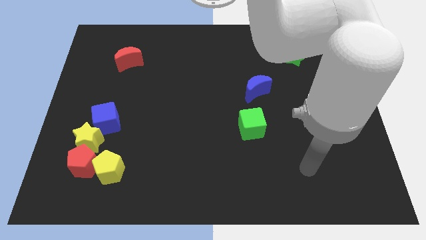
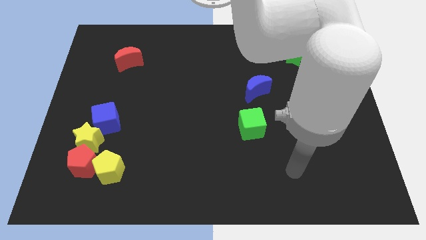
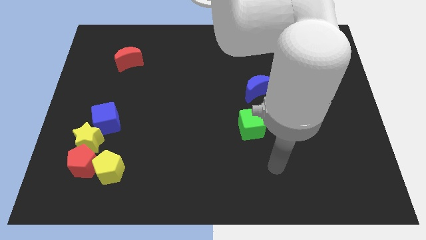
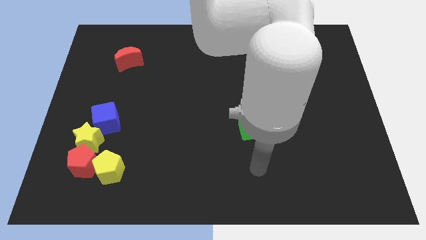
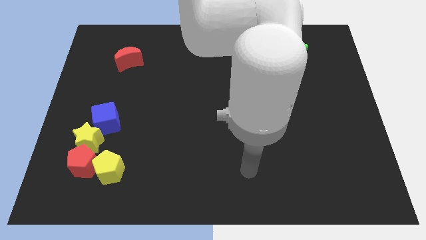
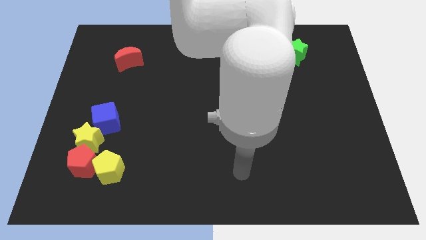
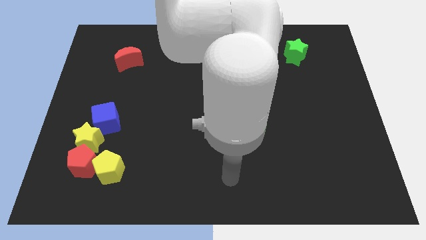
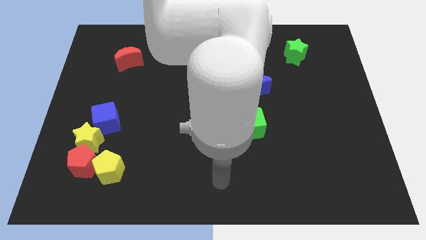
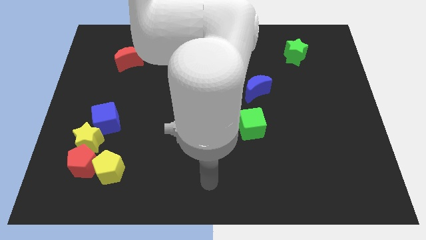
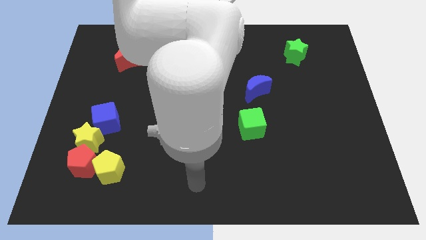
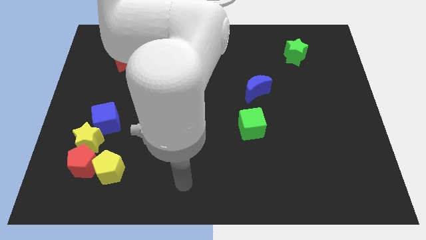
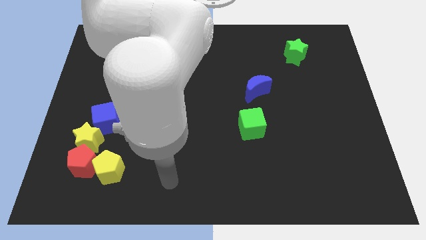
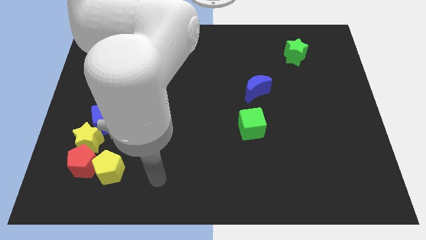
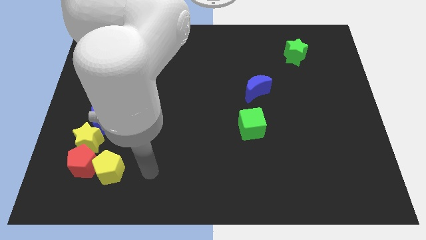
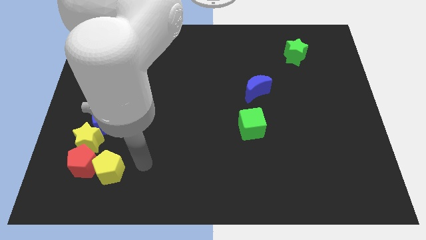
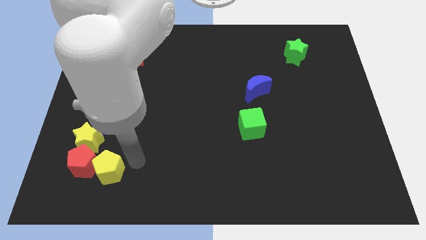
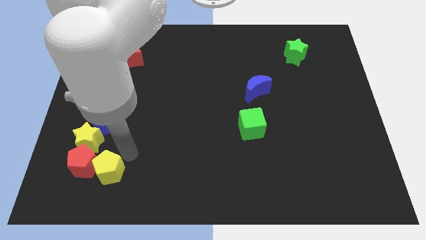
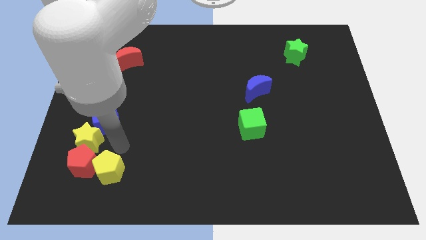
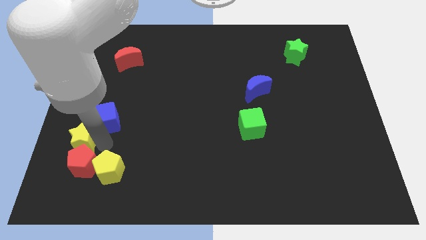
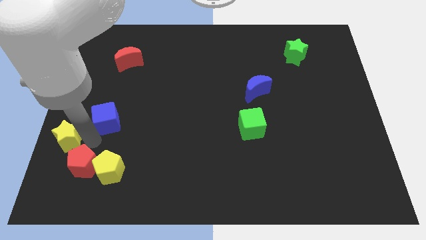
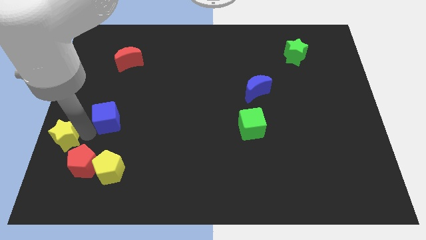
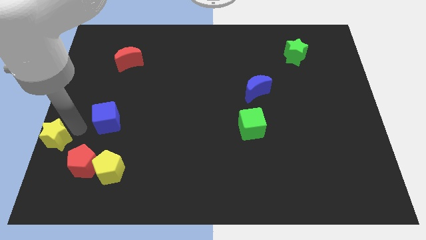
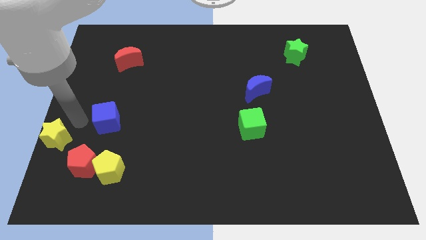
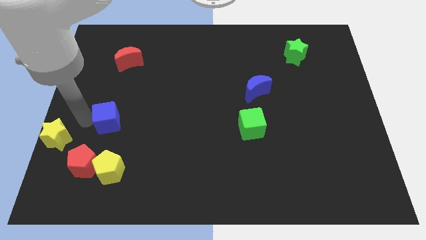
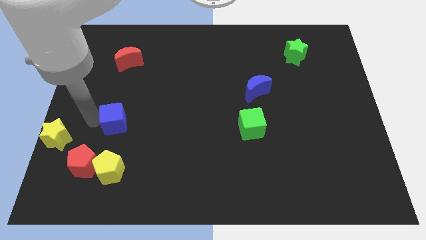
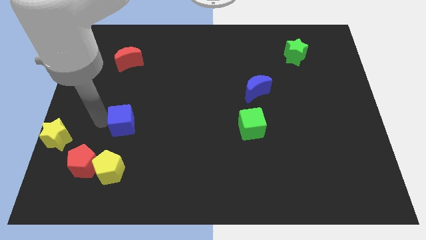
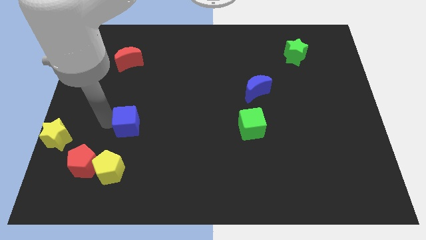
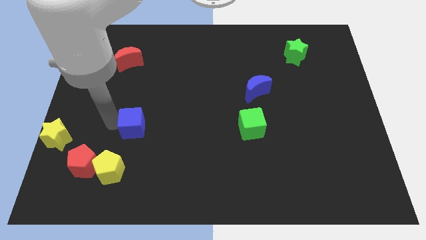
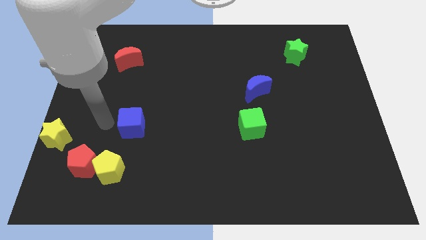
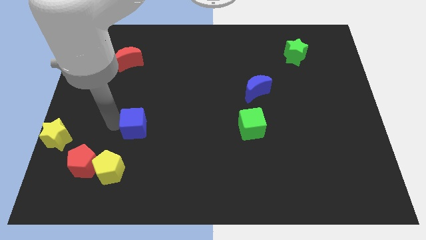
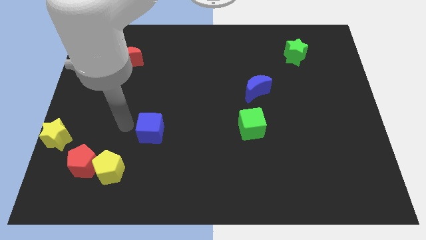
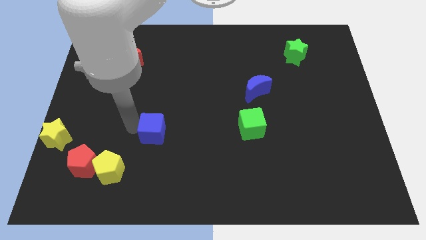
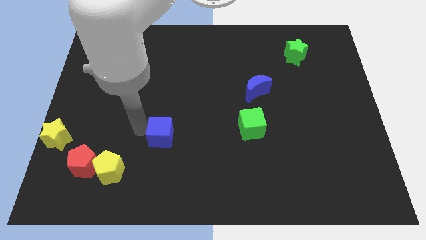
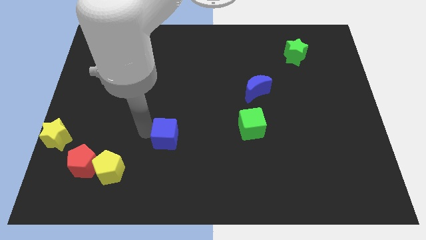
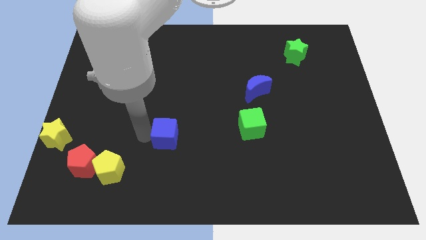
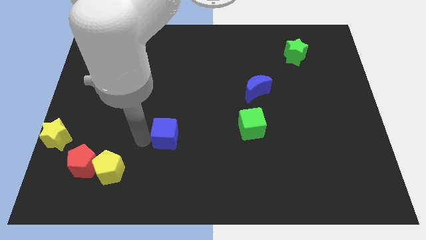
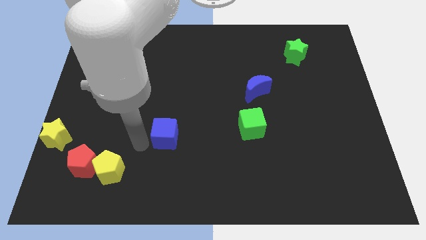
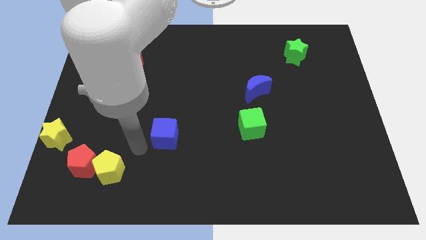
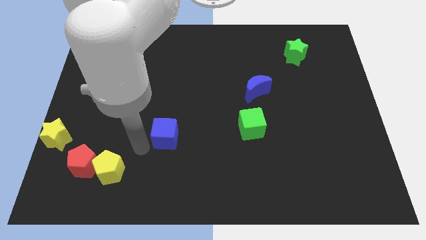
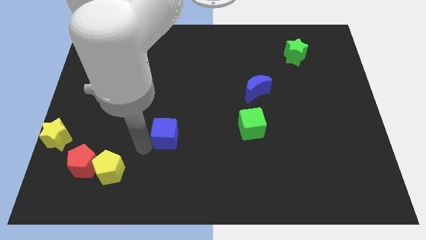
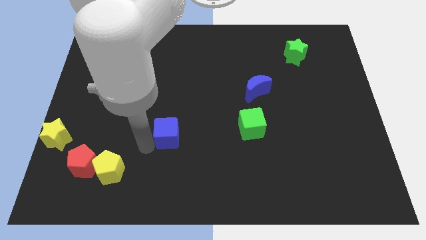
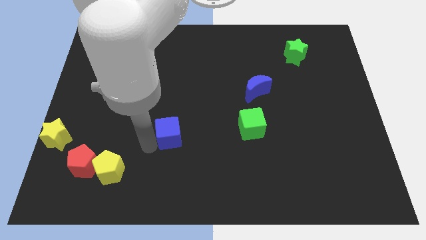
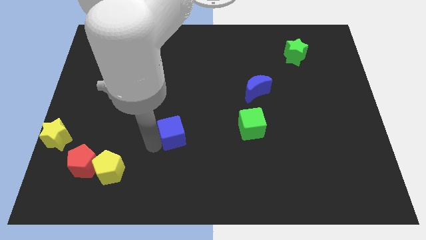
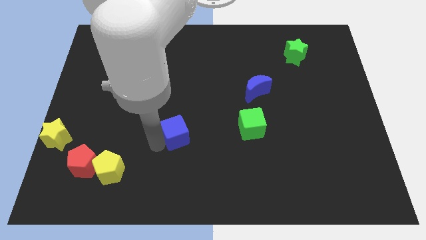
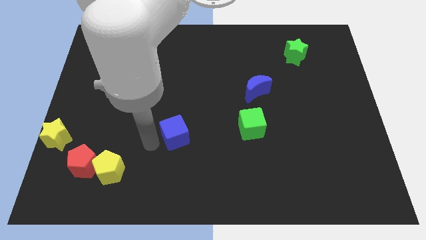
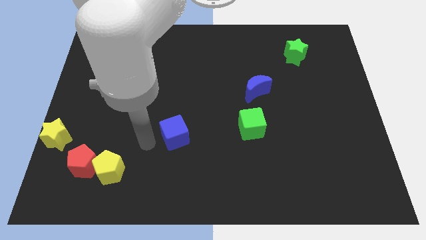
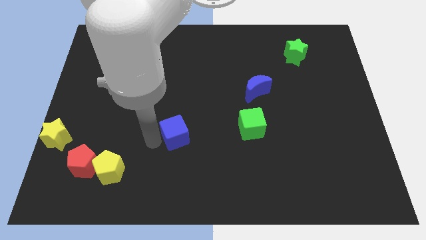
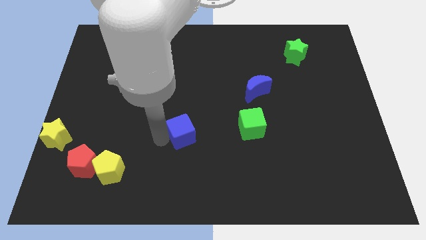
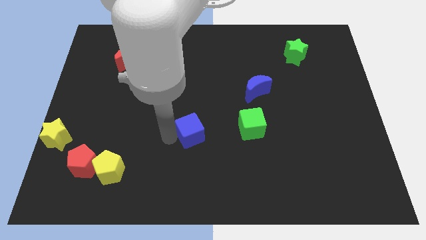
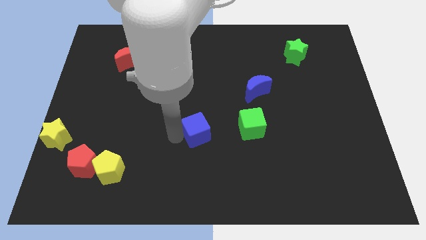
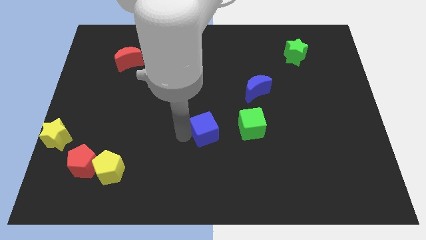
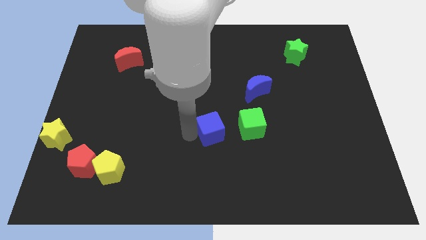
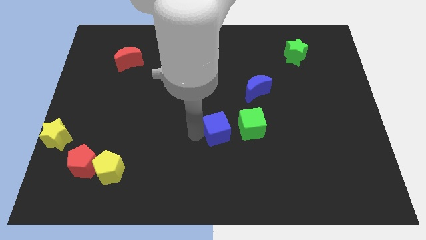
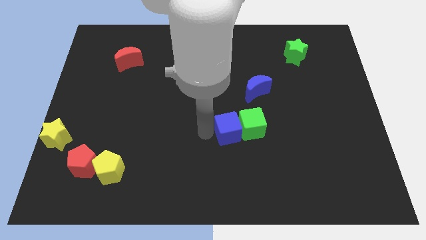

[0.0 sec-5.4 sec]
put the blue cube to the green cube

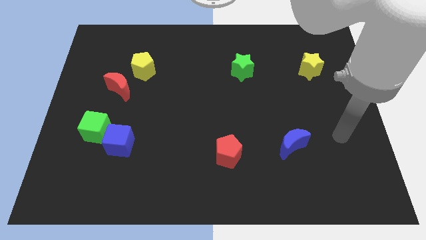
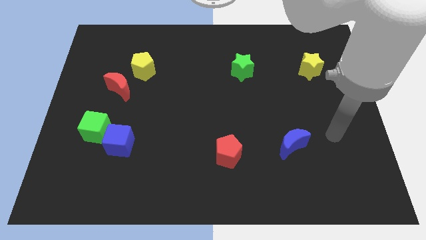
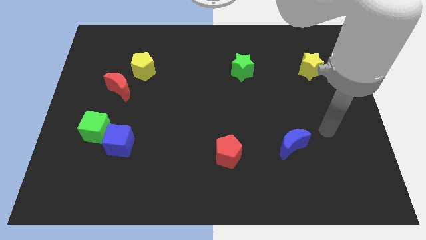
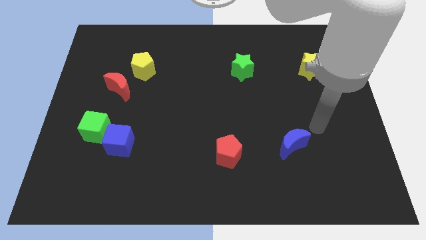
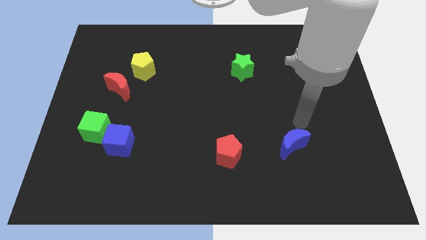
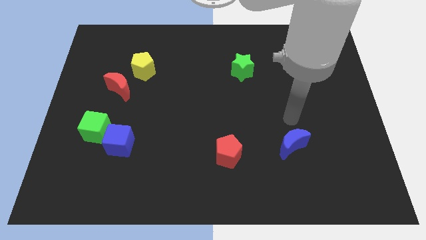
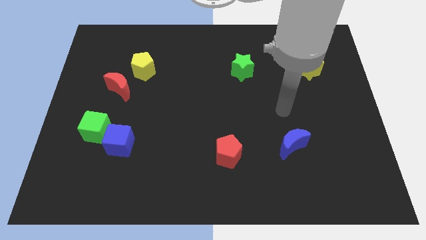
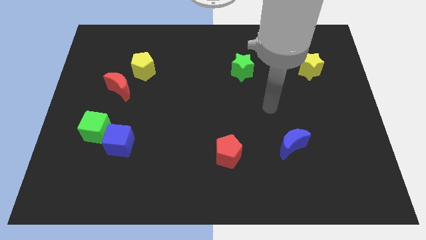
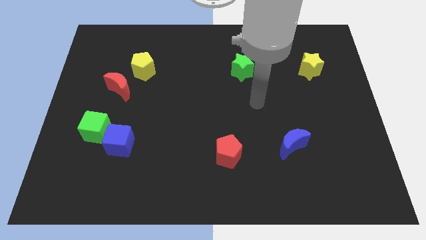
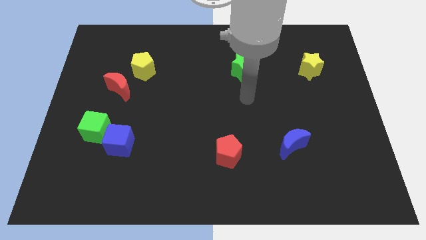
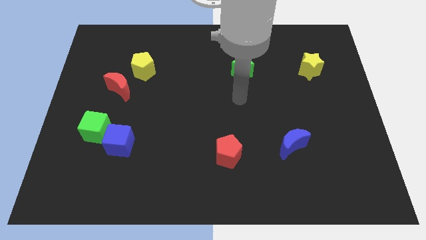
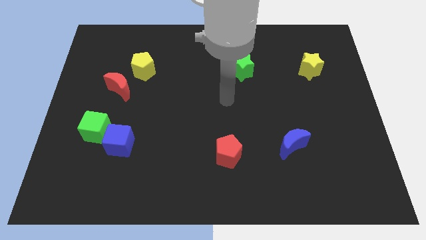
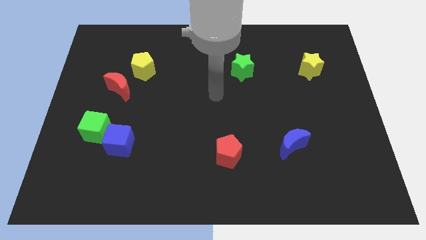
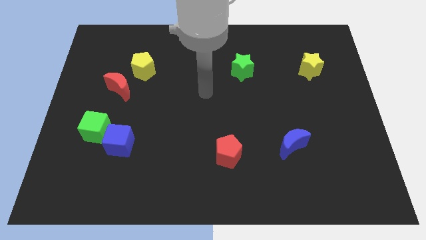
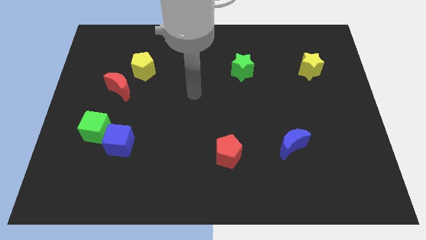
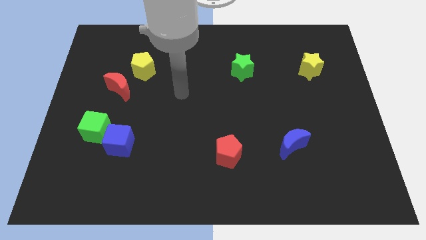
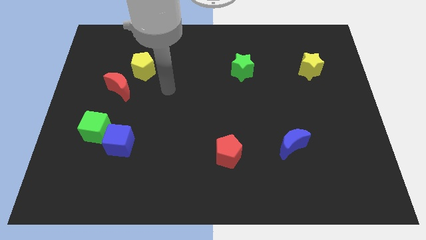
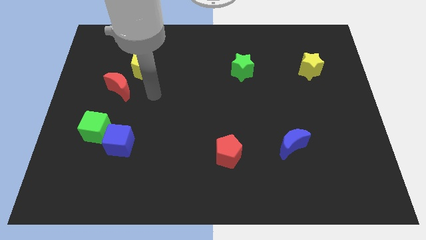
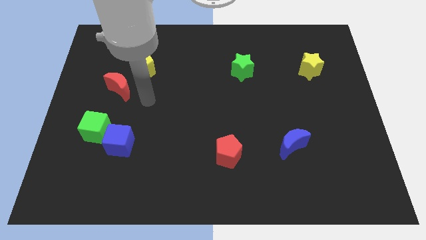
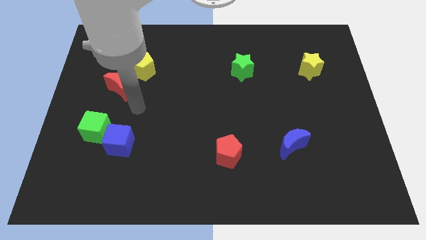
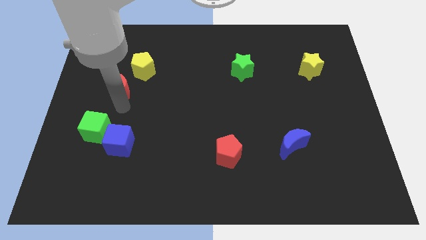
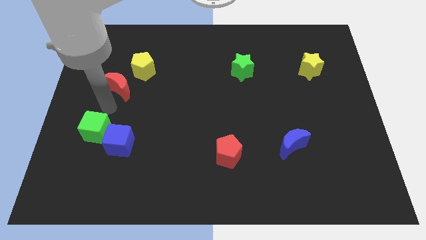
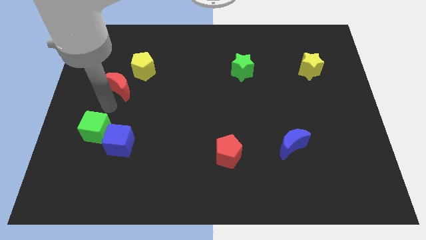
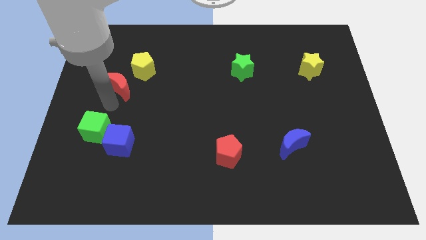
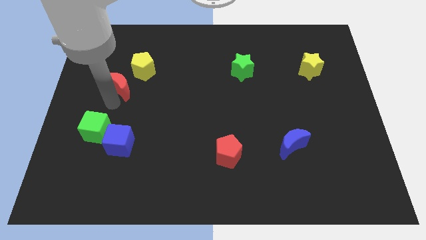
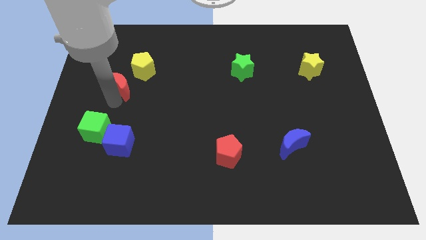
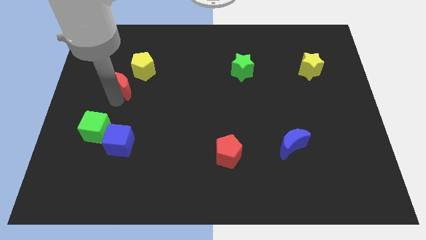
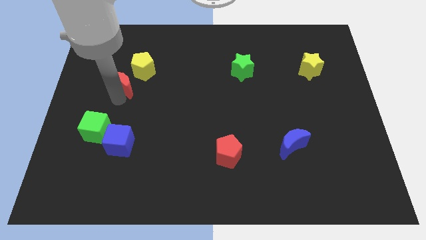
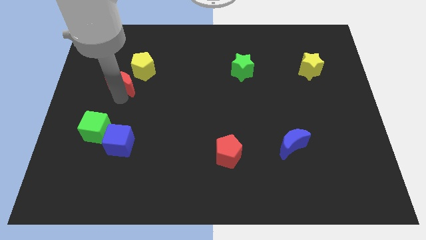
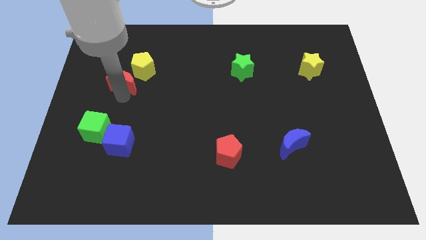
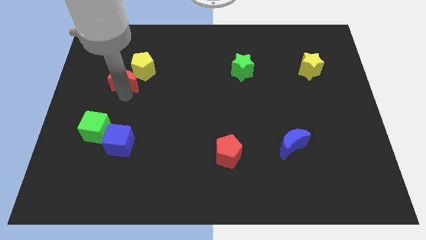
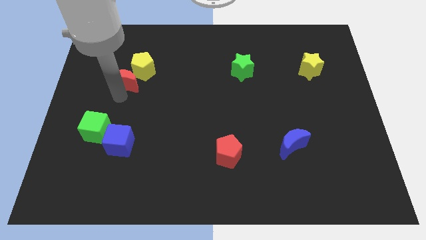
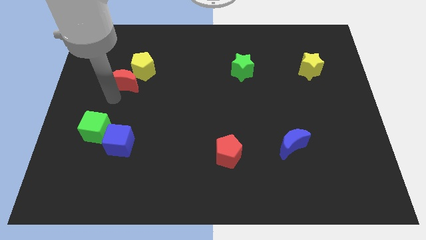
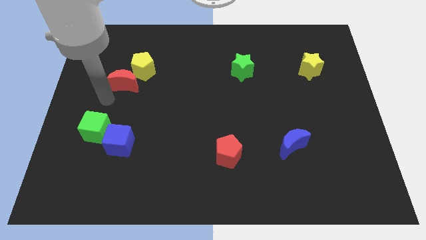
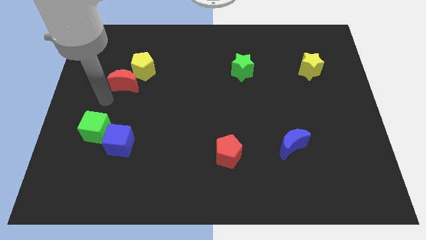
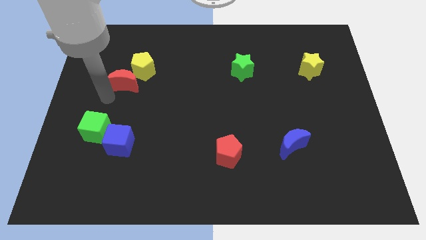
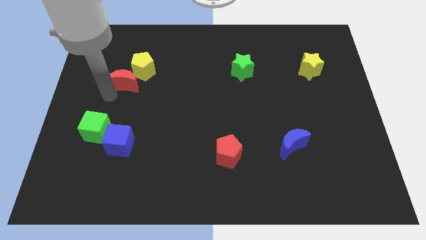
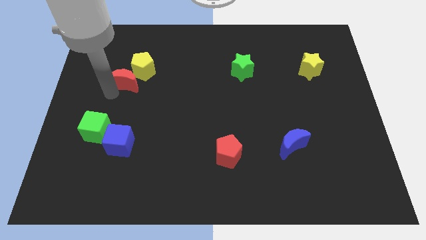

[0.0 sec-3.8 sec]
put the red moon close to the yellow pentagon
